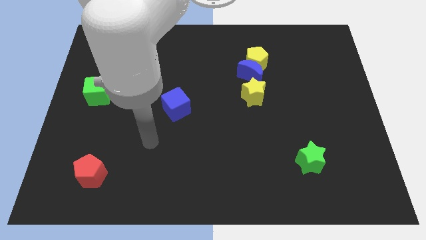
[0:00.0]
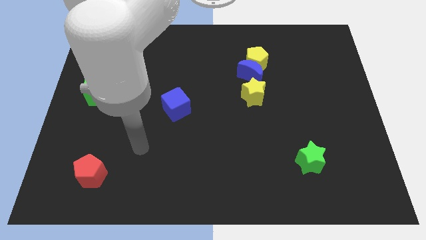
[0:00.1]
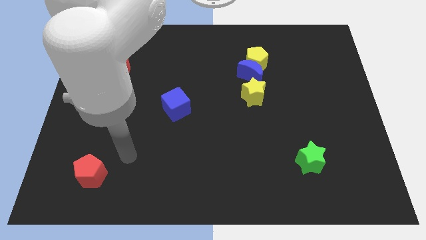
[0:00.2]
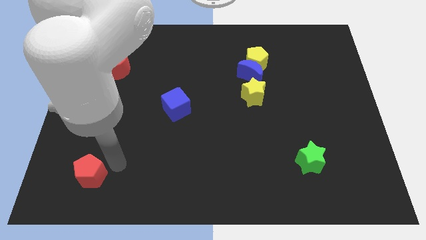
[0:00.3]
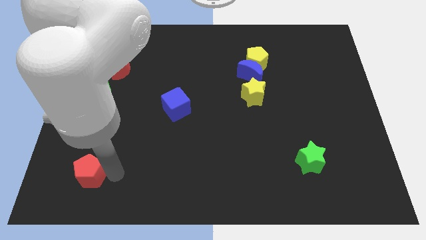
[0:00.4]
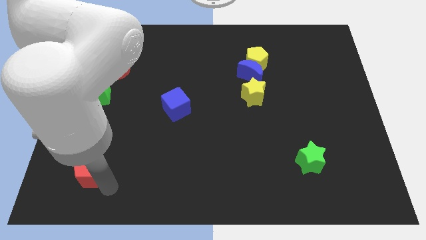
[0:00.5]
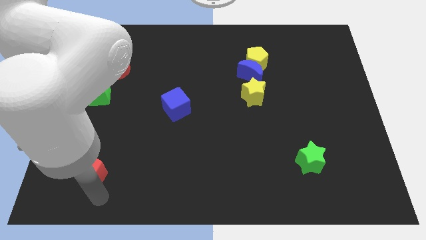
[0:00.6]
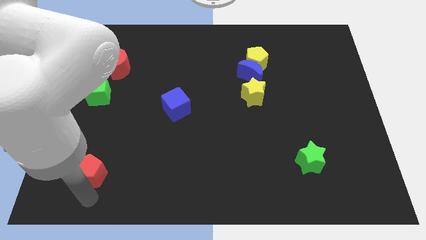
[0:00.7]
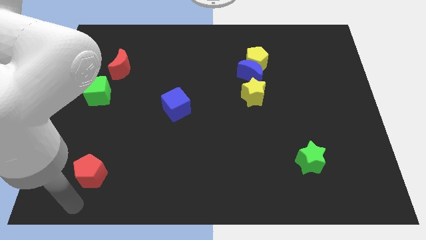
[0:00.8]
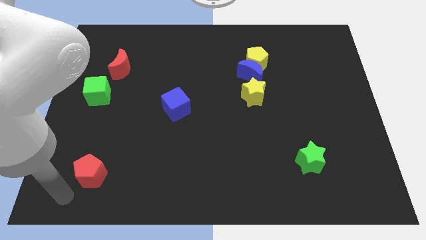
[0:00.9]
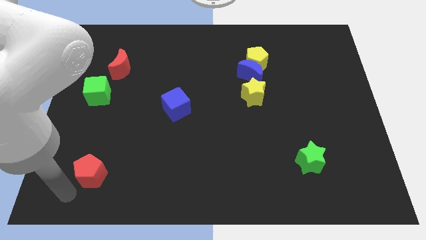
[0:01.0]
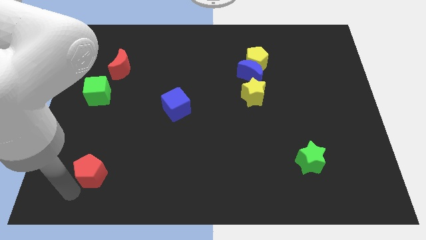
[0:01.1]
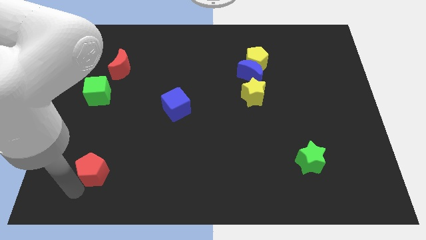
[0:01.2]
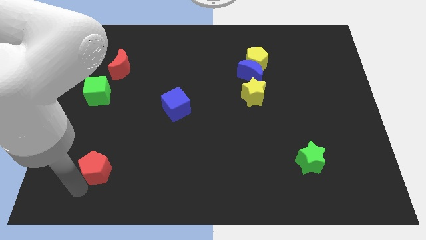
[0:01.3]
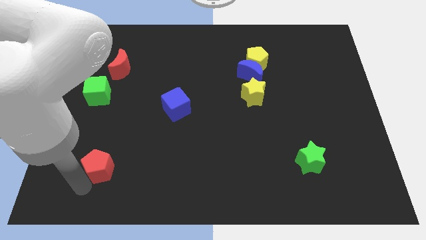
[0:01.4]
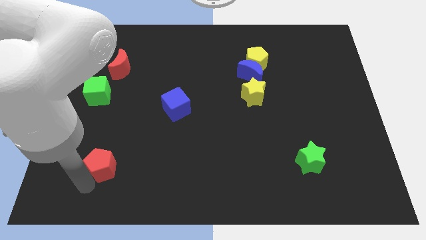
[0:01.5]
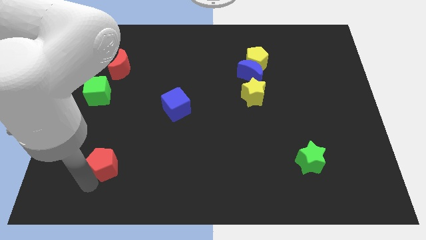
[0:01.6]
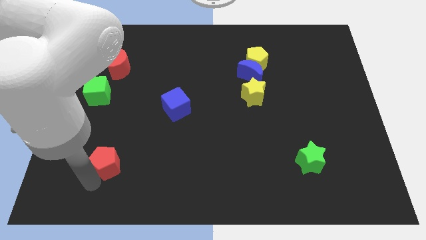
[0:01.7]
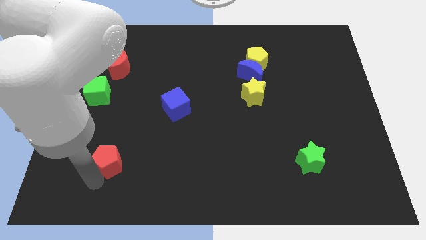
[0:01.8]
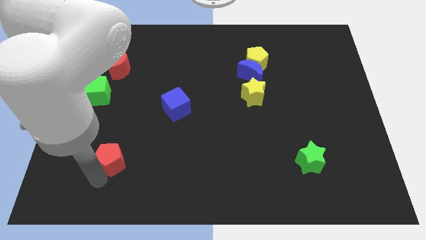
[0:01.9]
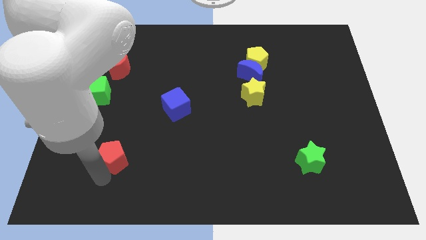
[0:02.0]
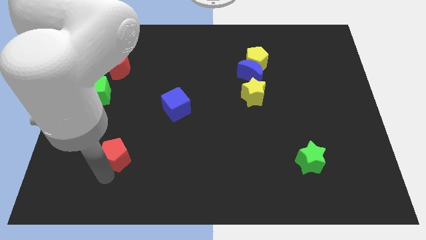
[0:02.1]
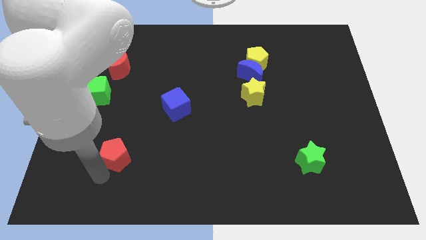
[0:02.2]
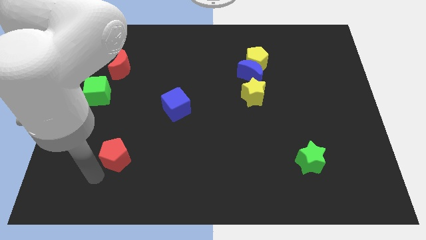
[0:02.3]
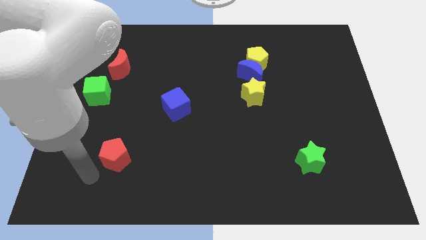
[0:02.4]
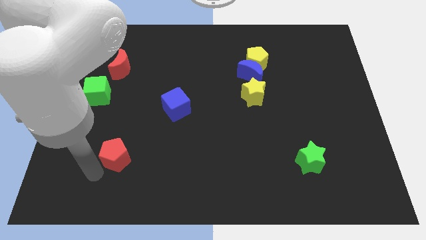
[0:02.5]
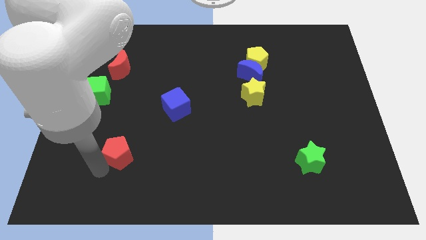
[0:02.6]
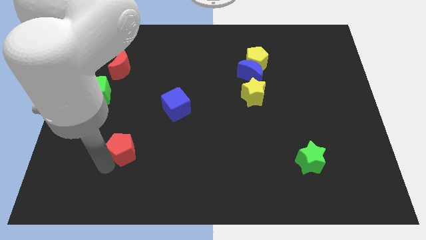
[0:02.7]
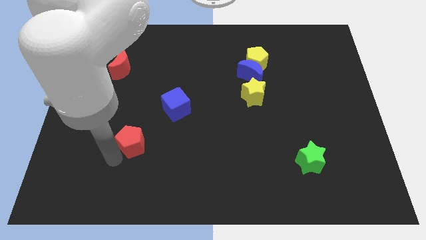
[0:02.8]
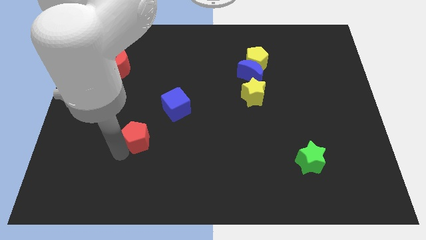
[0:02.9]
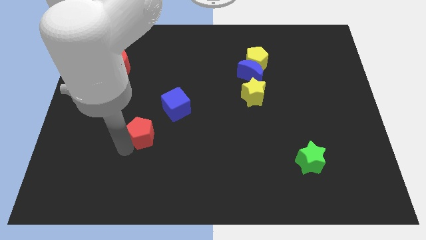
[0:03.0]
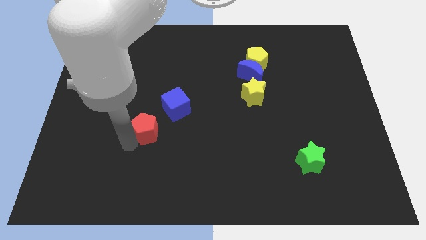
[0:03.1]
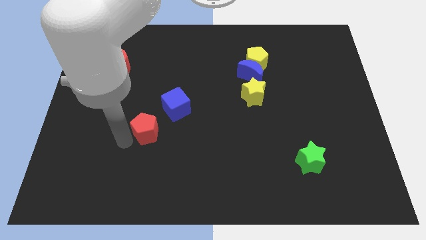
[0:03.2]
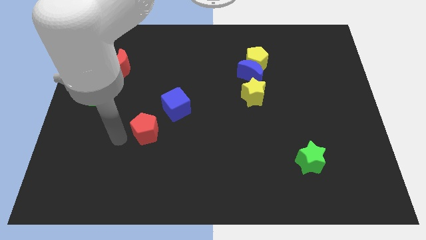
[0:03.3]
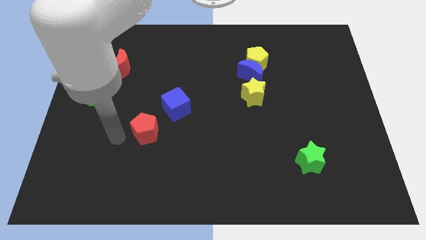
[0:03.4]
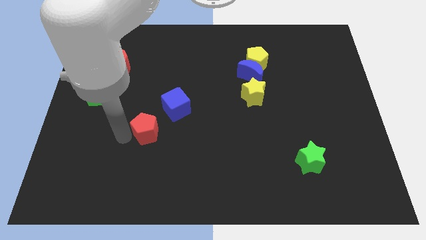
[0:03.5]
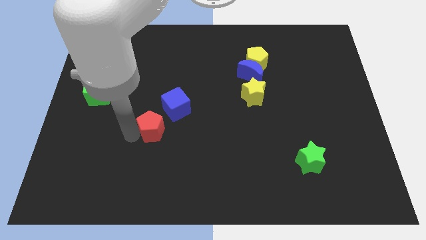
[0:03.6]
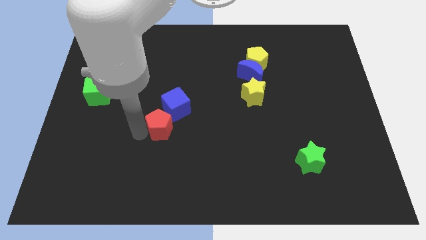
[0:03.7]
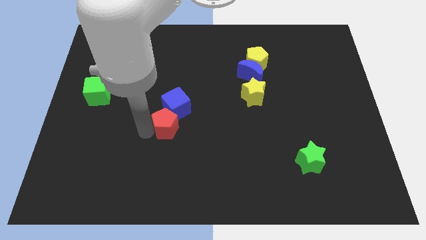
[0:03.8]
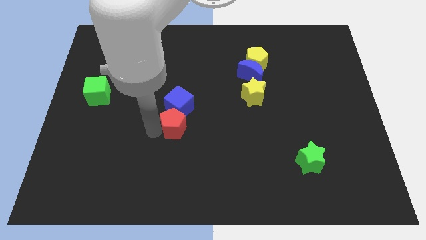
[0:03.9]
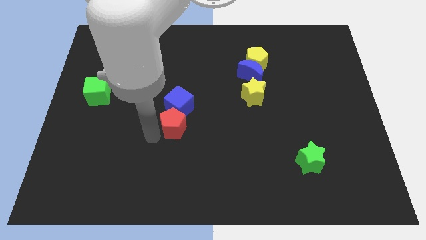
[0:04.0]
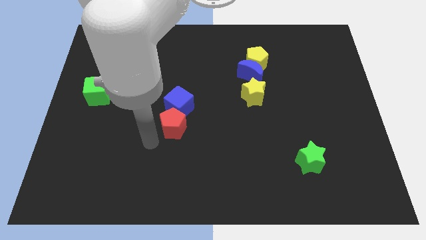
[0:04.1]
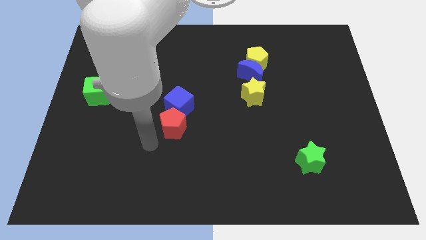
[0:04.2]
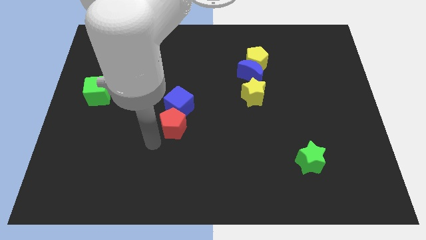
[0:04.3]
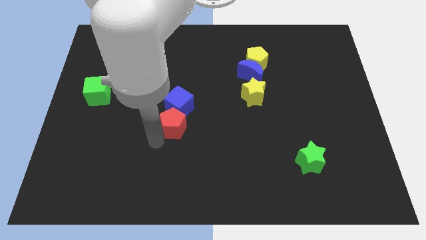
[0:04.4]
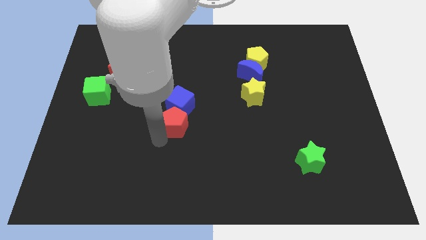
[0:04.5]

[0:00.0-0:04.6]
push the red pentagon diagonally upwards and to the right

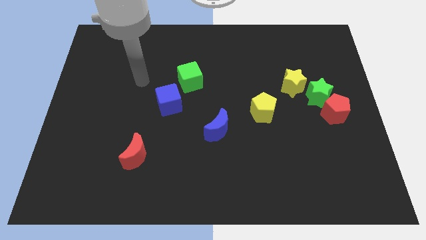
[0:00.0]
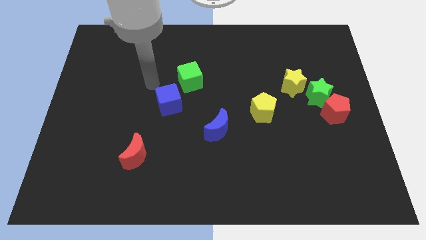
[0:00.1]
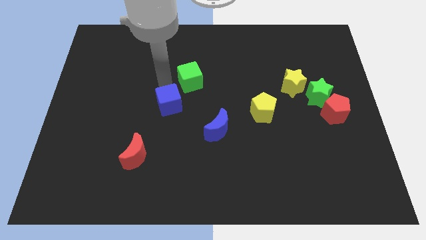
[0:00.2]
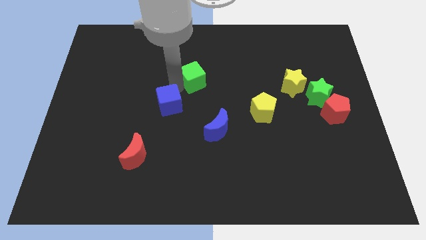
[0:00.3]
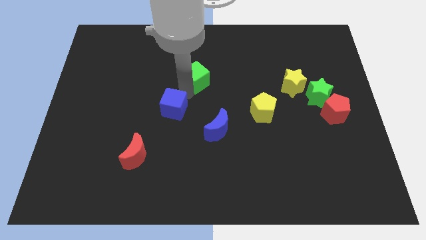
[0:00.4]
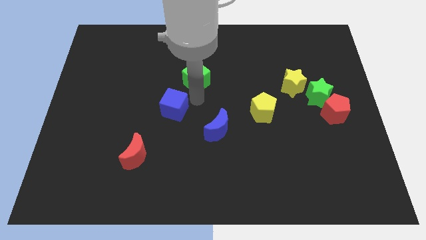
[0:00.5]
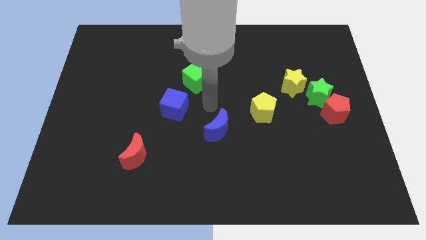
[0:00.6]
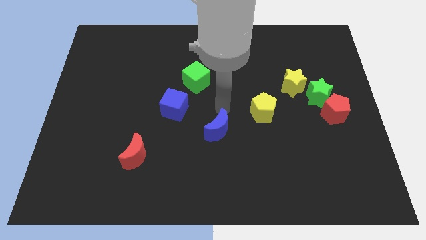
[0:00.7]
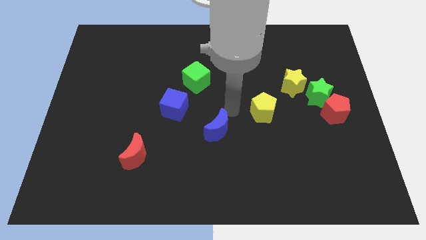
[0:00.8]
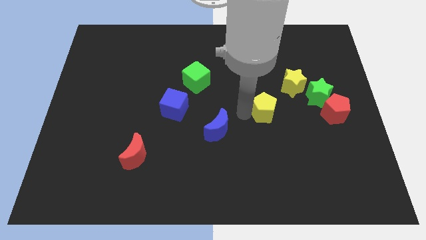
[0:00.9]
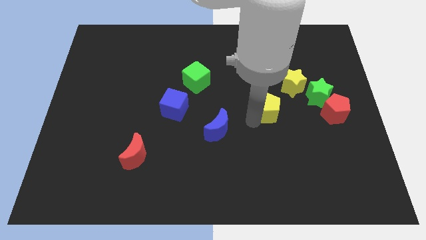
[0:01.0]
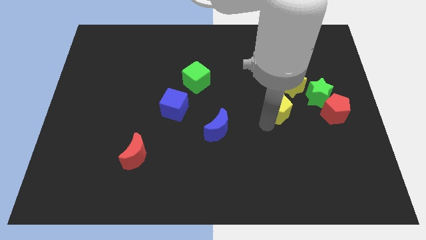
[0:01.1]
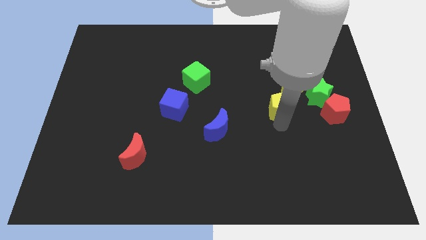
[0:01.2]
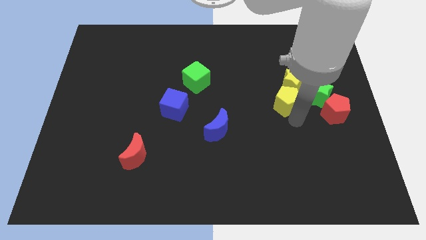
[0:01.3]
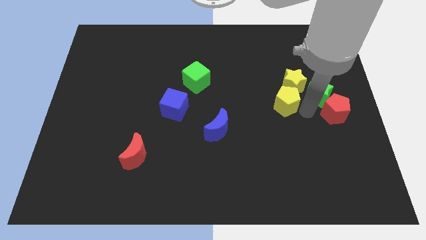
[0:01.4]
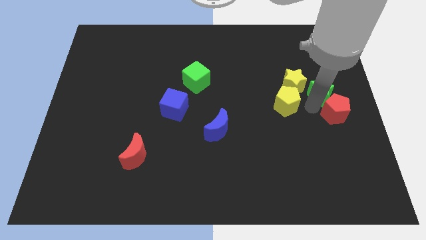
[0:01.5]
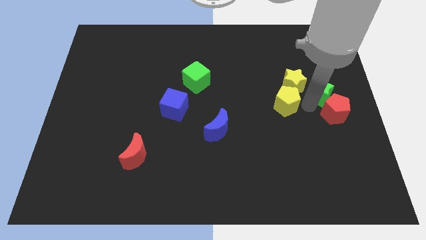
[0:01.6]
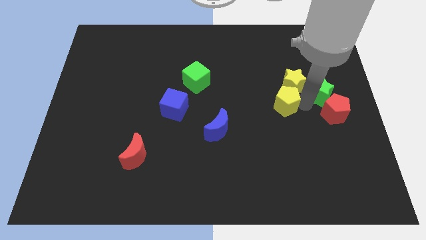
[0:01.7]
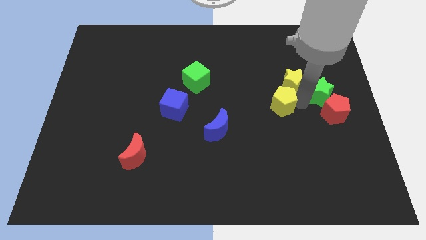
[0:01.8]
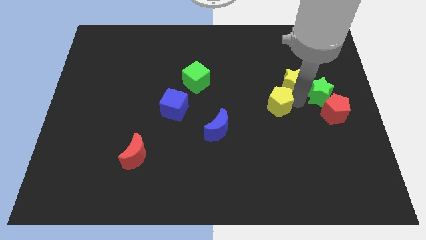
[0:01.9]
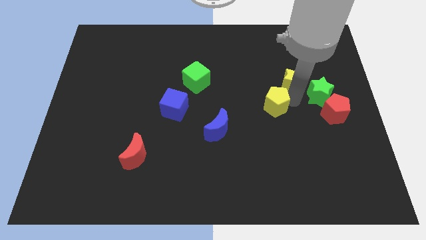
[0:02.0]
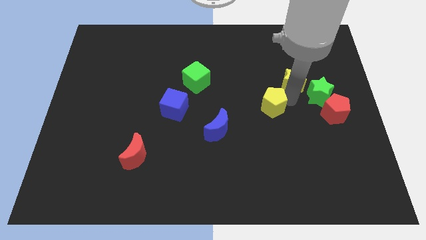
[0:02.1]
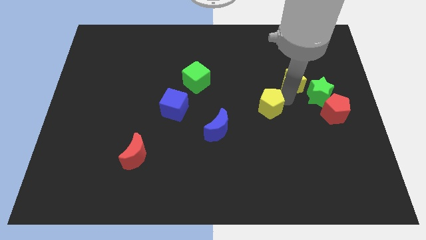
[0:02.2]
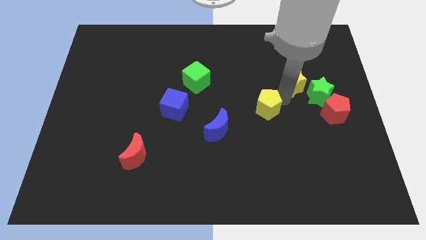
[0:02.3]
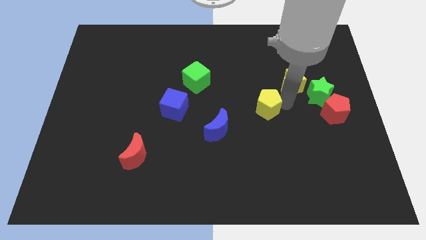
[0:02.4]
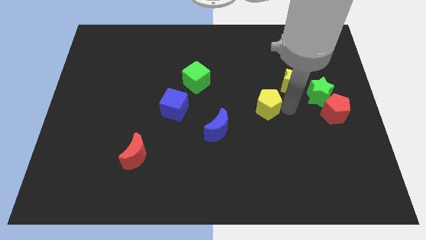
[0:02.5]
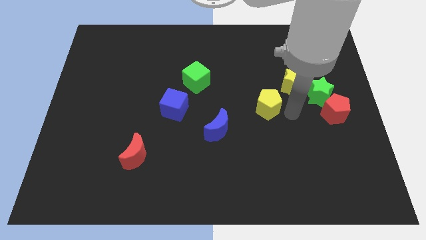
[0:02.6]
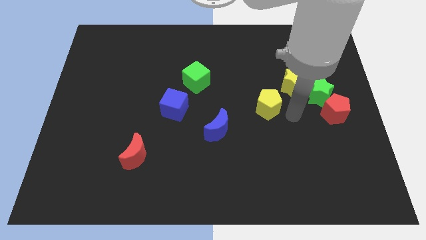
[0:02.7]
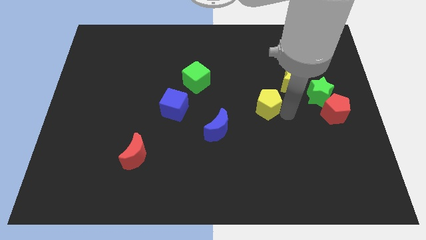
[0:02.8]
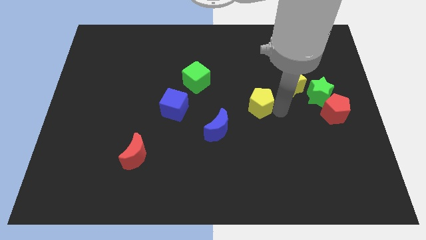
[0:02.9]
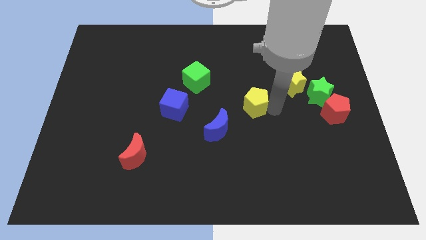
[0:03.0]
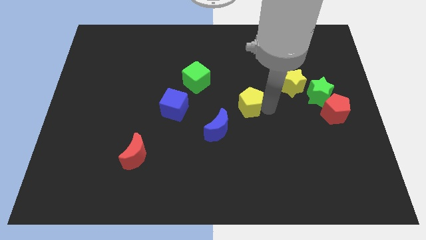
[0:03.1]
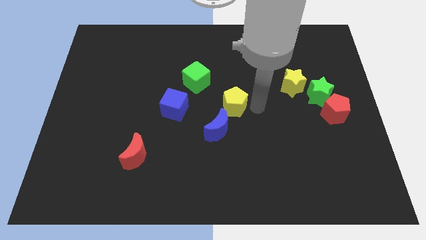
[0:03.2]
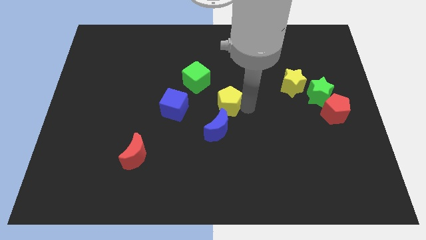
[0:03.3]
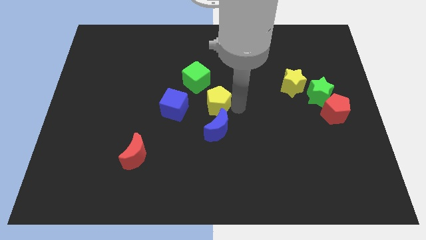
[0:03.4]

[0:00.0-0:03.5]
move the yellow pentagon up and to the left diagonally somewhat
